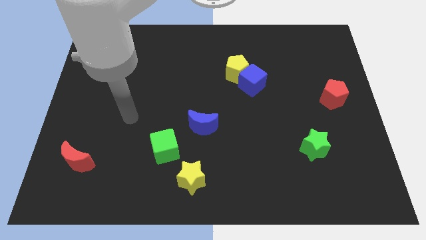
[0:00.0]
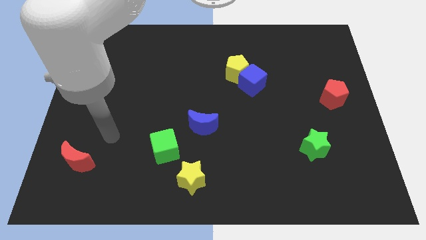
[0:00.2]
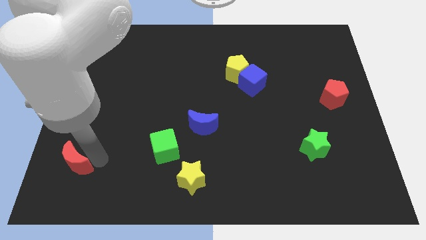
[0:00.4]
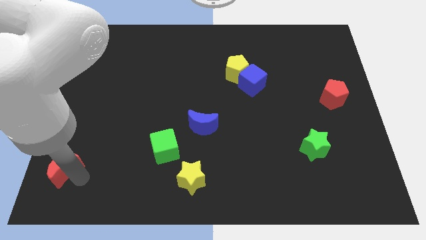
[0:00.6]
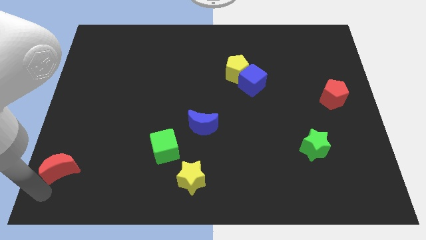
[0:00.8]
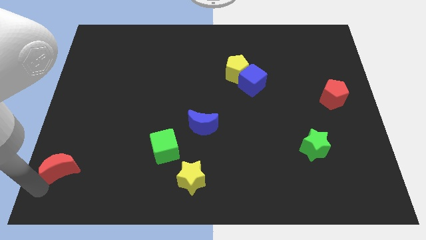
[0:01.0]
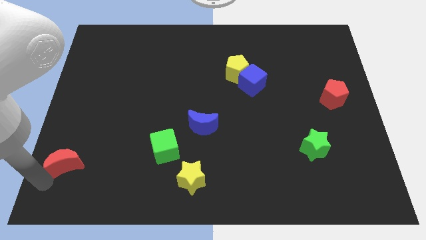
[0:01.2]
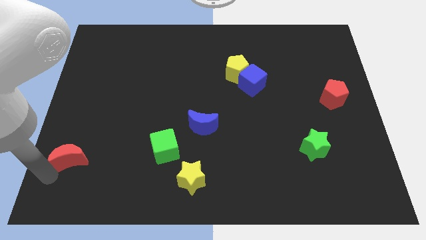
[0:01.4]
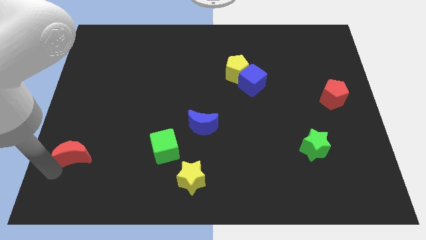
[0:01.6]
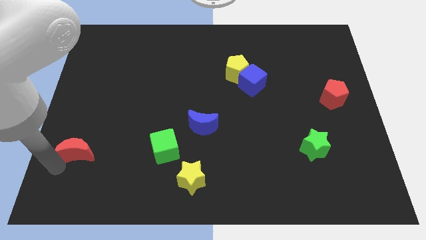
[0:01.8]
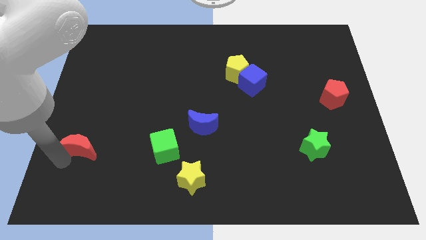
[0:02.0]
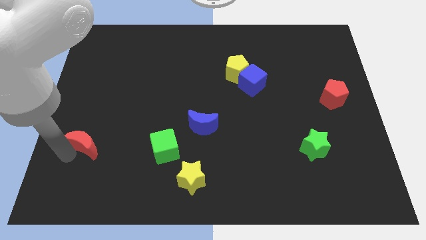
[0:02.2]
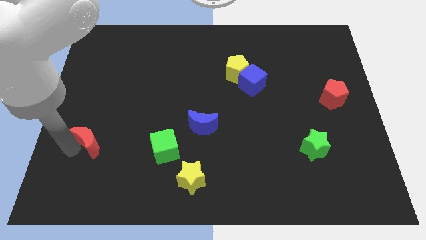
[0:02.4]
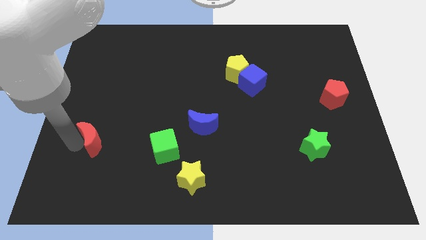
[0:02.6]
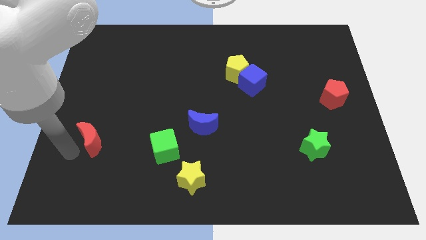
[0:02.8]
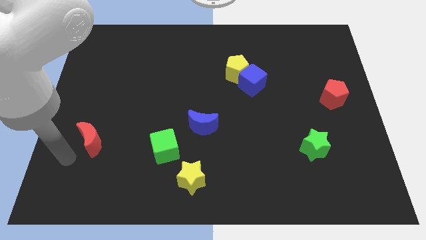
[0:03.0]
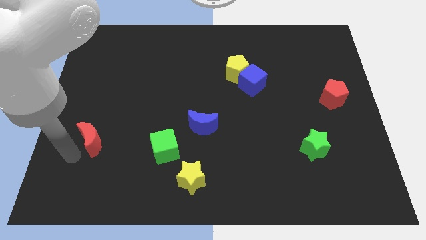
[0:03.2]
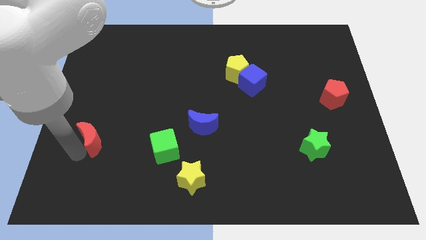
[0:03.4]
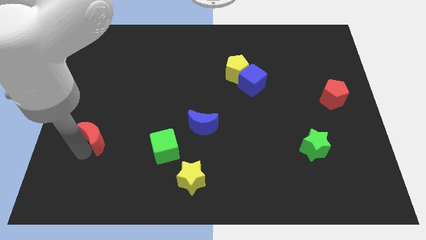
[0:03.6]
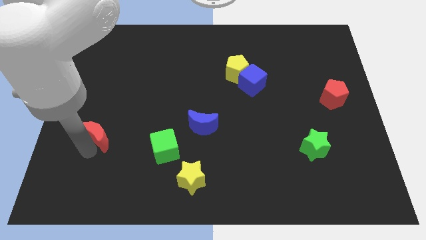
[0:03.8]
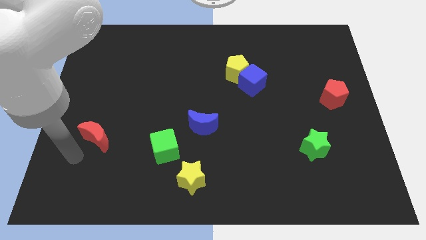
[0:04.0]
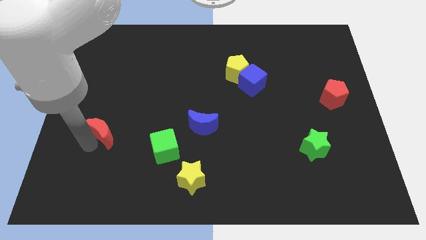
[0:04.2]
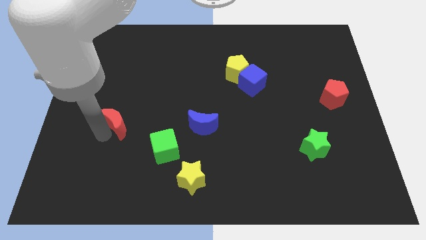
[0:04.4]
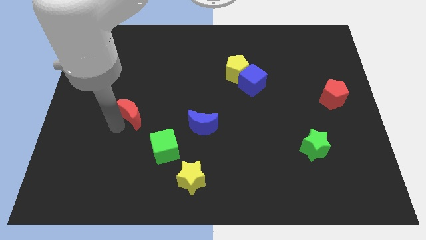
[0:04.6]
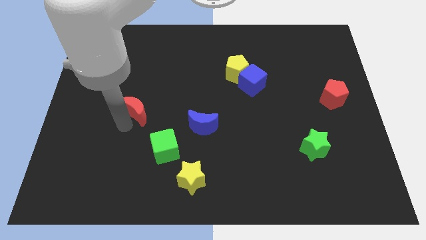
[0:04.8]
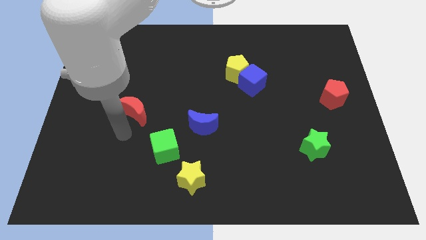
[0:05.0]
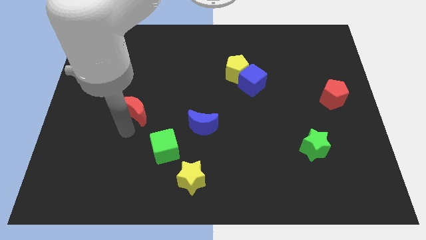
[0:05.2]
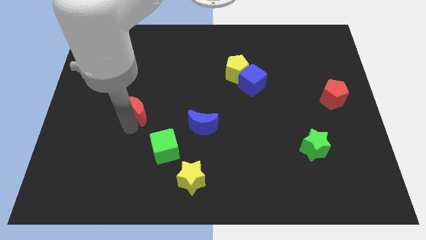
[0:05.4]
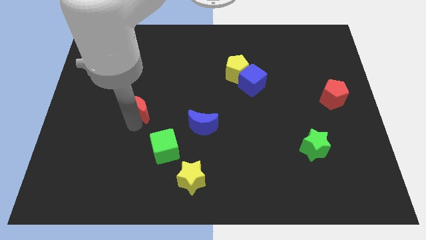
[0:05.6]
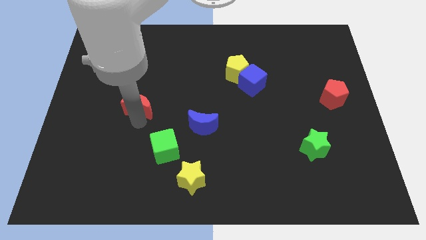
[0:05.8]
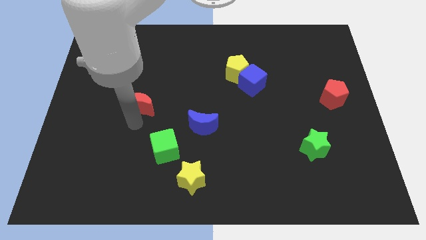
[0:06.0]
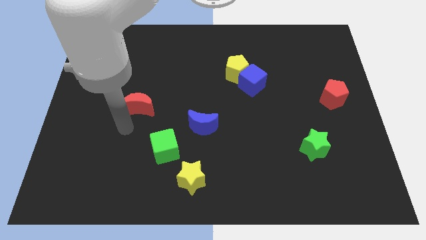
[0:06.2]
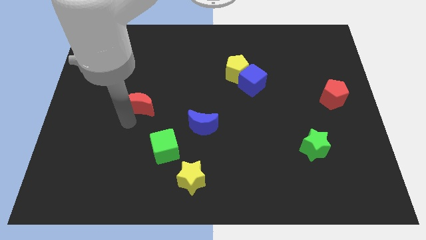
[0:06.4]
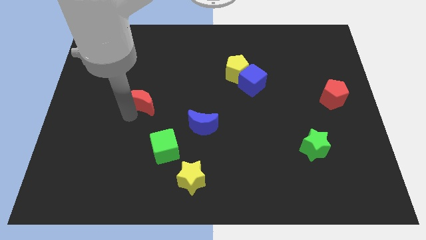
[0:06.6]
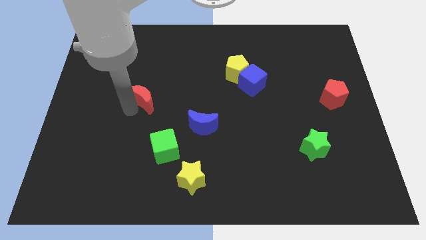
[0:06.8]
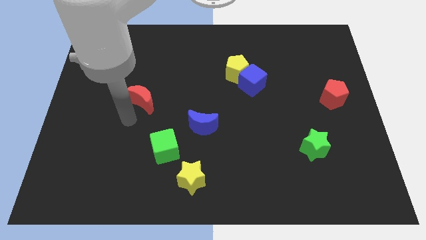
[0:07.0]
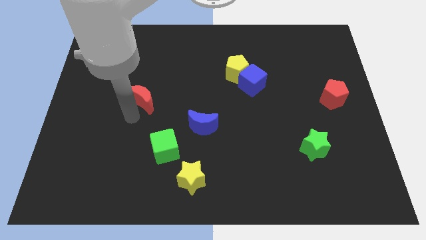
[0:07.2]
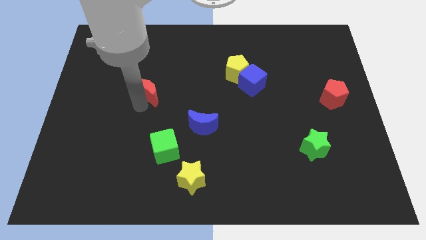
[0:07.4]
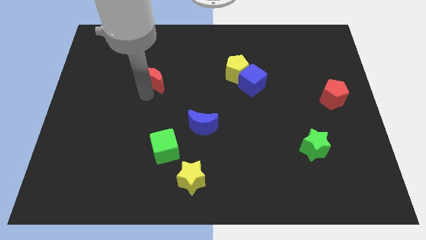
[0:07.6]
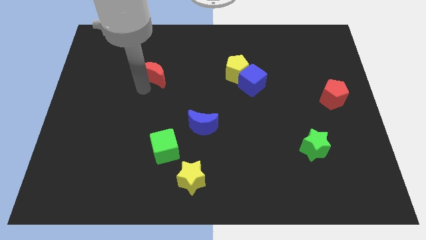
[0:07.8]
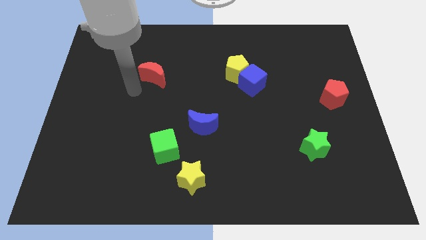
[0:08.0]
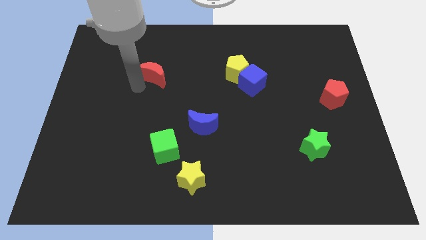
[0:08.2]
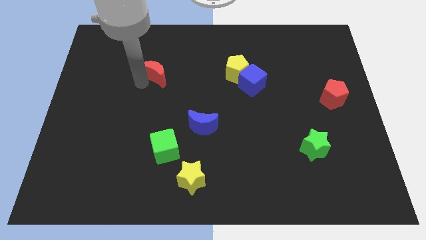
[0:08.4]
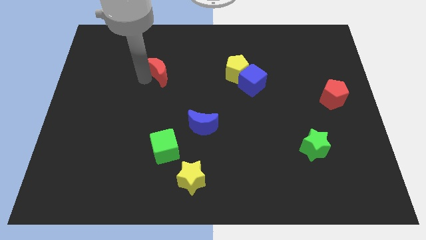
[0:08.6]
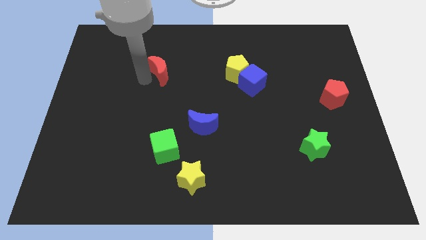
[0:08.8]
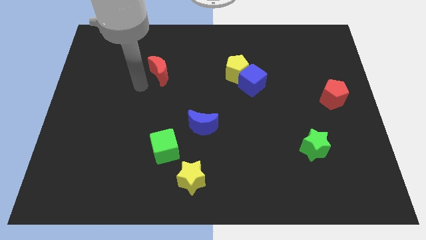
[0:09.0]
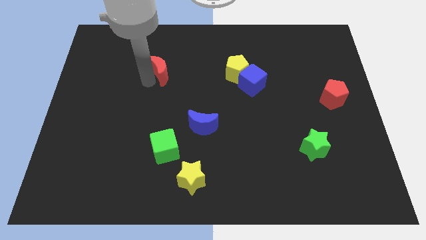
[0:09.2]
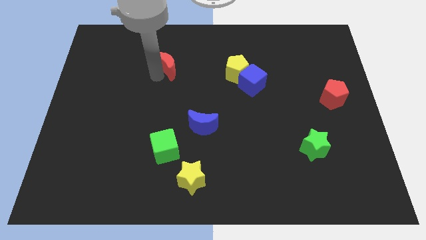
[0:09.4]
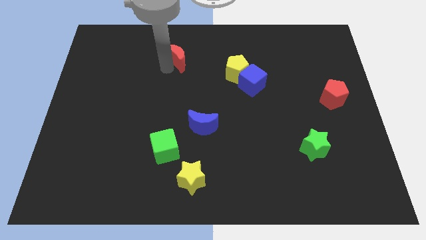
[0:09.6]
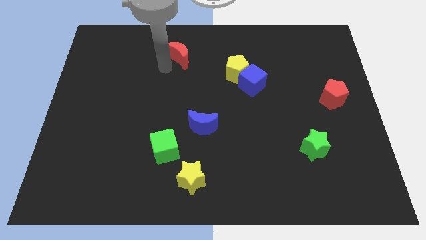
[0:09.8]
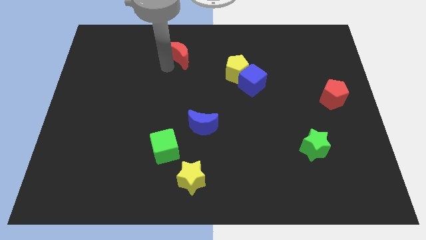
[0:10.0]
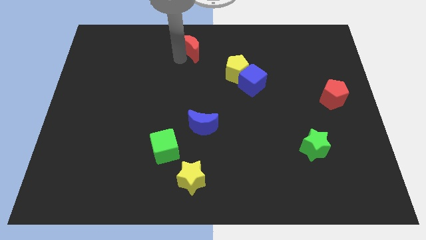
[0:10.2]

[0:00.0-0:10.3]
slide the red moon to the towards your base

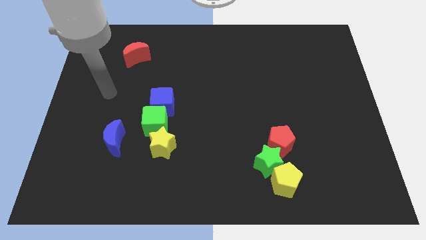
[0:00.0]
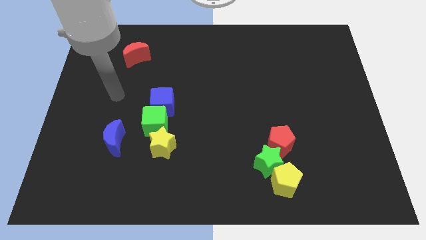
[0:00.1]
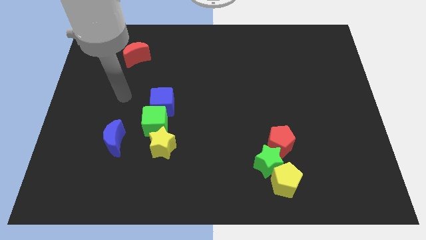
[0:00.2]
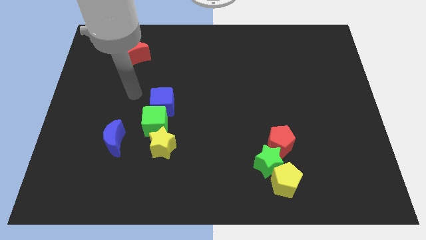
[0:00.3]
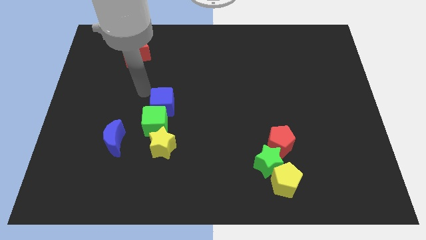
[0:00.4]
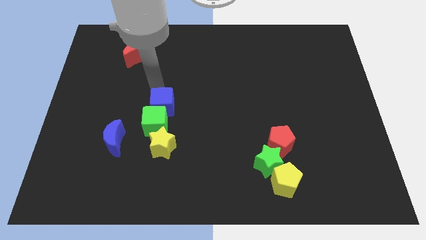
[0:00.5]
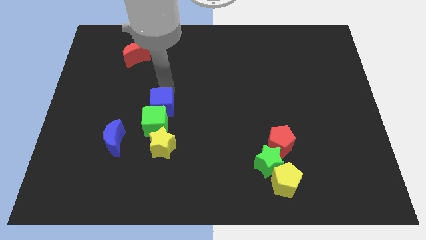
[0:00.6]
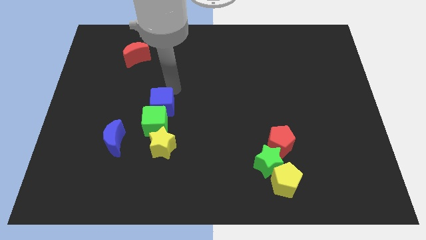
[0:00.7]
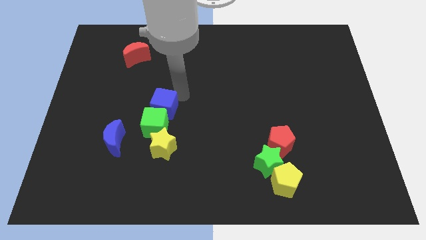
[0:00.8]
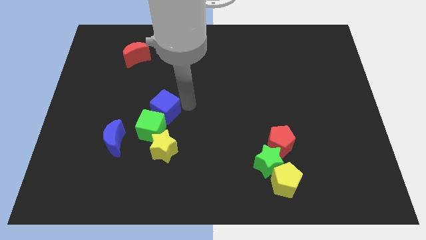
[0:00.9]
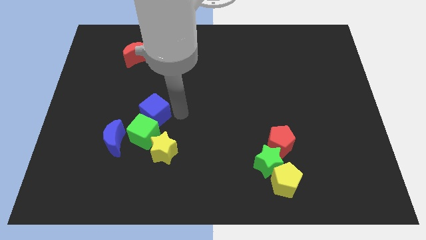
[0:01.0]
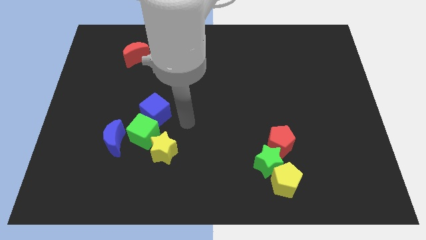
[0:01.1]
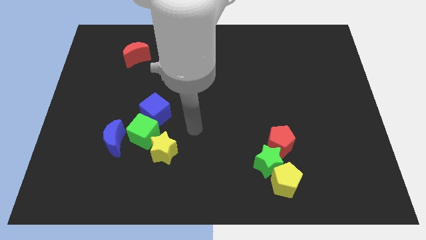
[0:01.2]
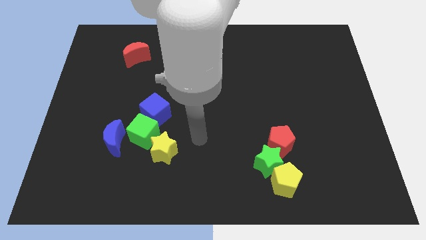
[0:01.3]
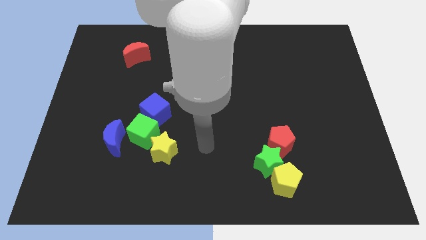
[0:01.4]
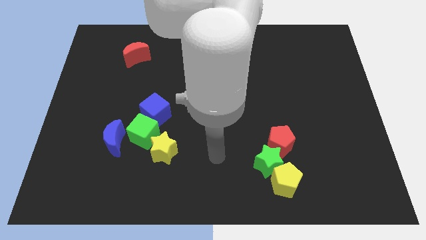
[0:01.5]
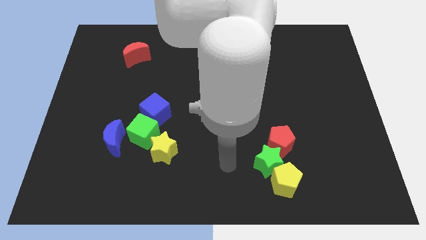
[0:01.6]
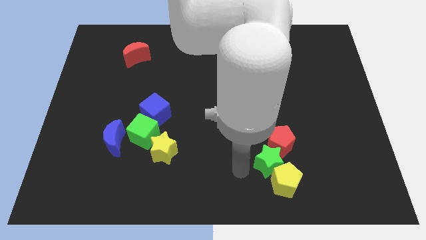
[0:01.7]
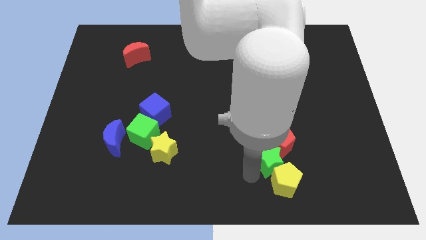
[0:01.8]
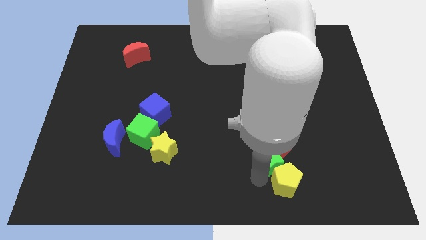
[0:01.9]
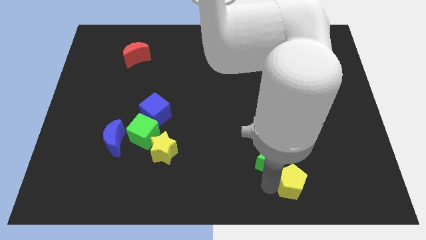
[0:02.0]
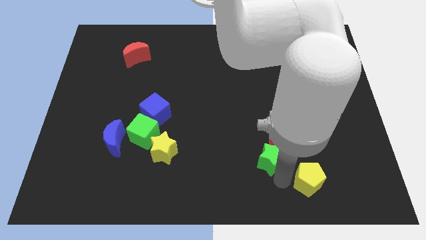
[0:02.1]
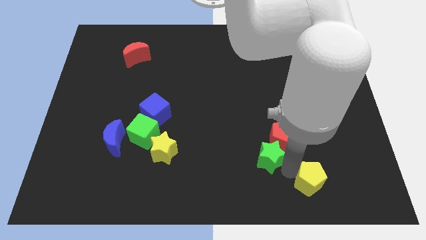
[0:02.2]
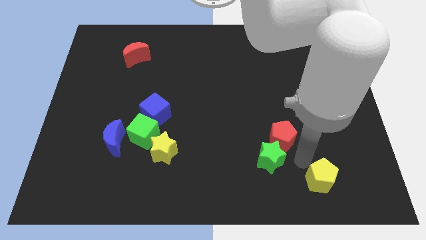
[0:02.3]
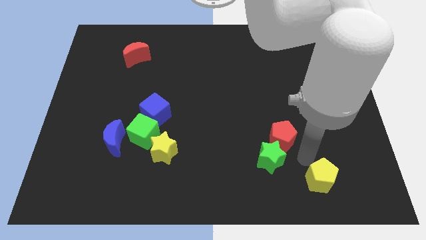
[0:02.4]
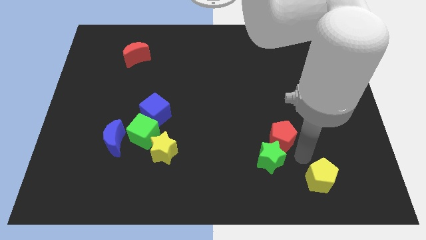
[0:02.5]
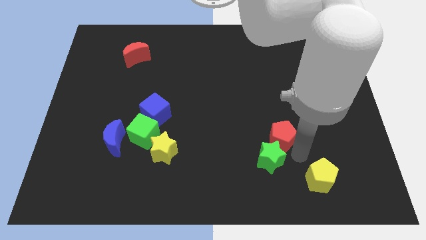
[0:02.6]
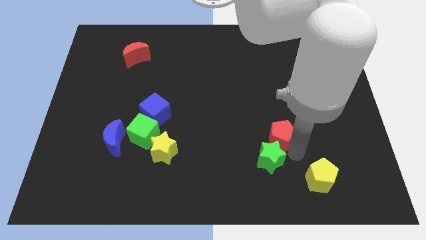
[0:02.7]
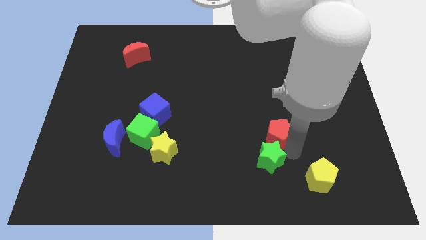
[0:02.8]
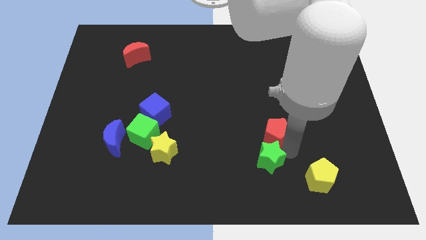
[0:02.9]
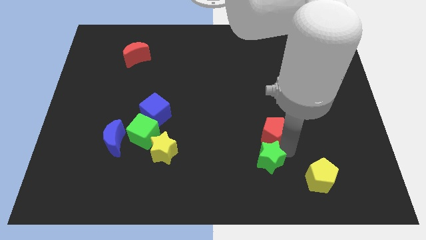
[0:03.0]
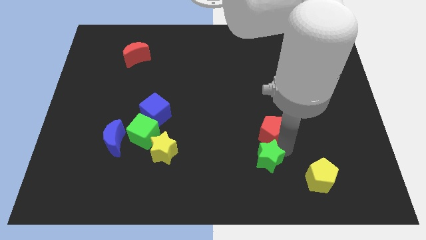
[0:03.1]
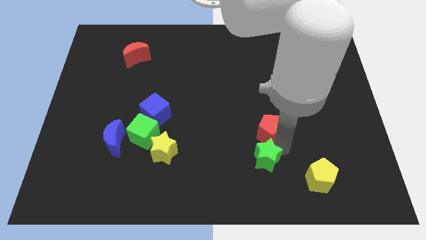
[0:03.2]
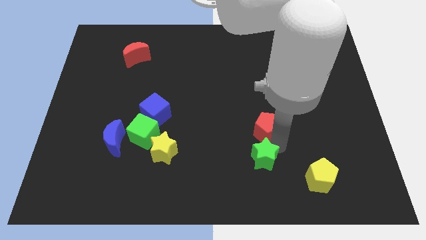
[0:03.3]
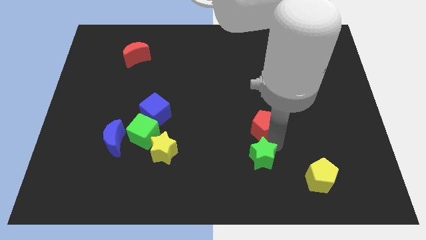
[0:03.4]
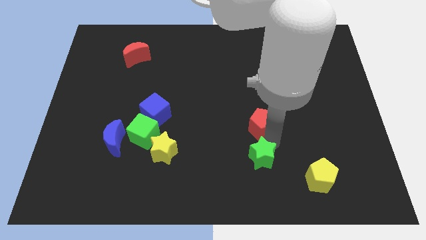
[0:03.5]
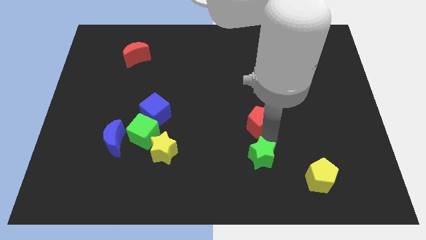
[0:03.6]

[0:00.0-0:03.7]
put the red pentagon to the center of the board
